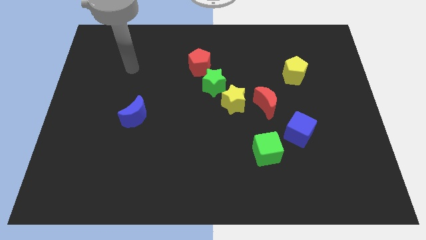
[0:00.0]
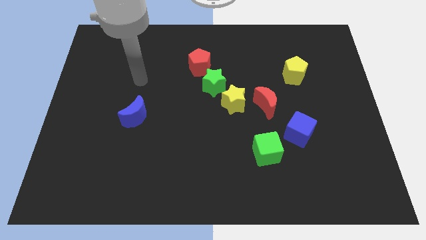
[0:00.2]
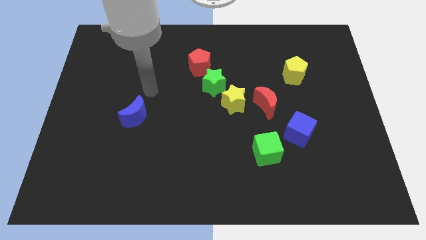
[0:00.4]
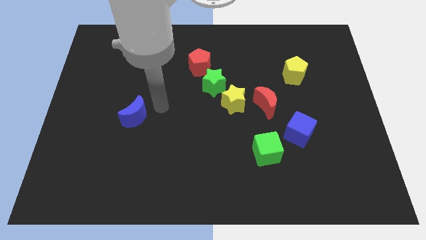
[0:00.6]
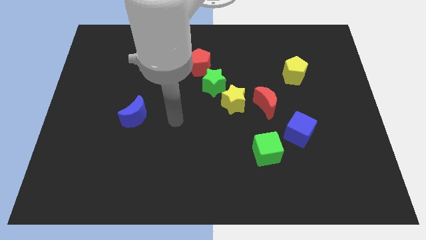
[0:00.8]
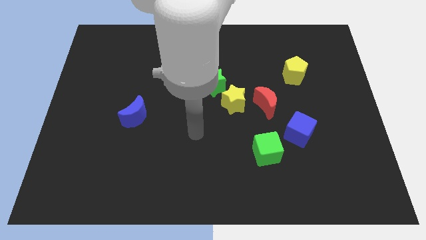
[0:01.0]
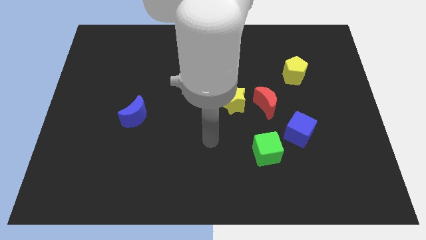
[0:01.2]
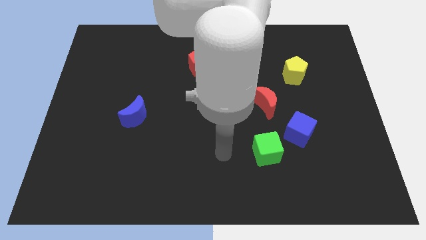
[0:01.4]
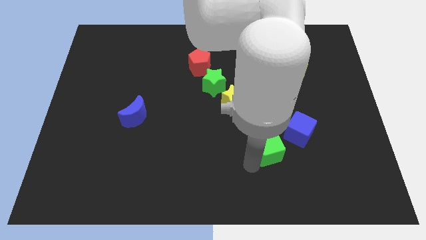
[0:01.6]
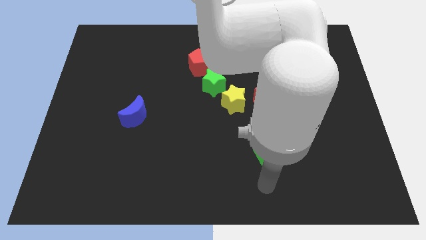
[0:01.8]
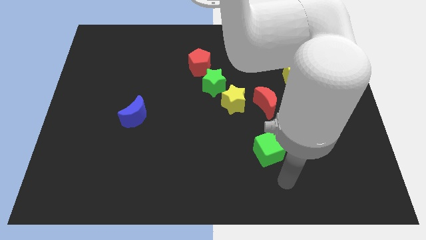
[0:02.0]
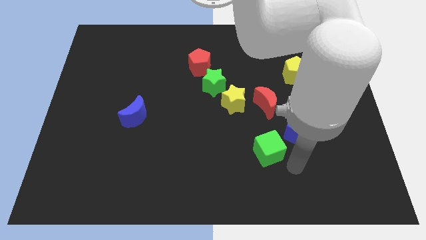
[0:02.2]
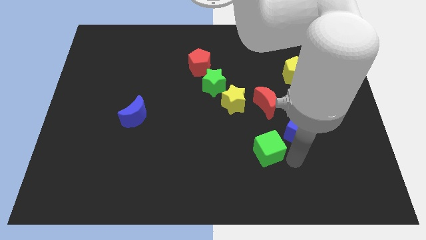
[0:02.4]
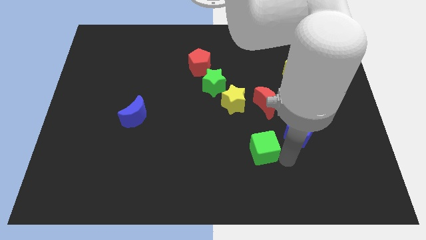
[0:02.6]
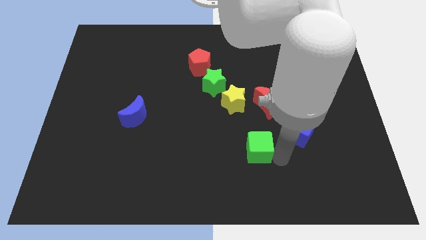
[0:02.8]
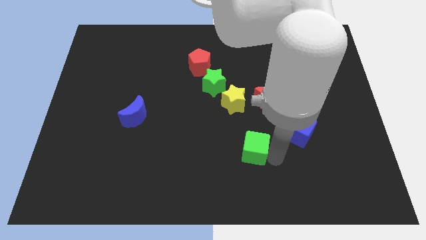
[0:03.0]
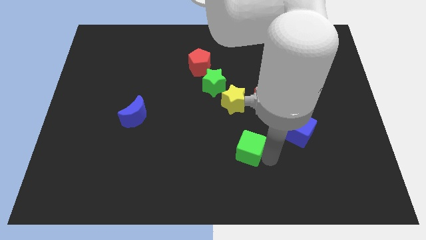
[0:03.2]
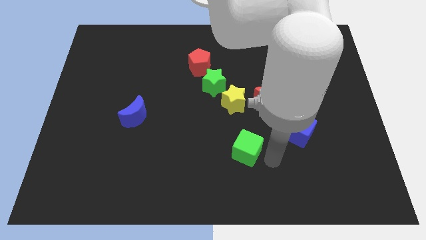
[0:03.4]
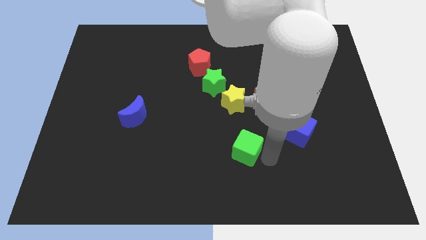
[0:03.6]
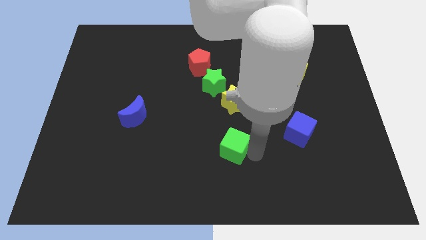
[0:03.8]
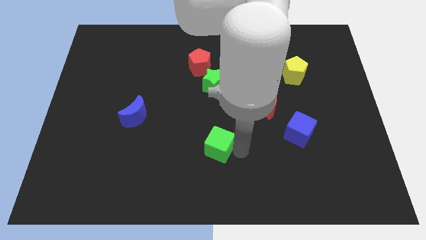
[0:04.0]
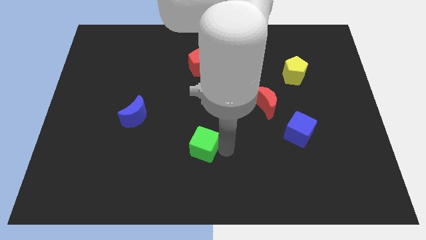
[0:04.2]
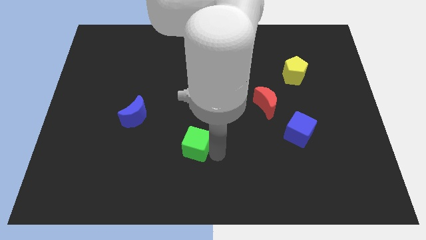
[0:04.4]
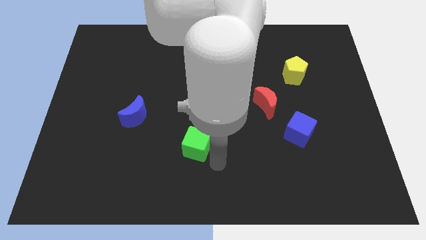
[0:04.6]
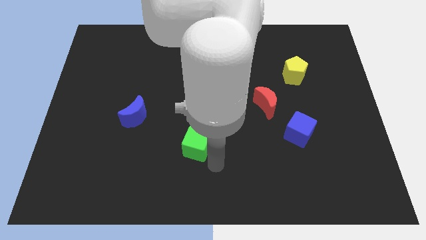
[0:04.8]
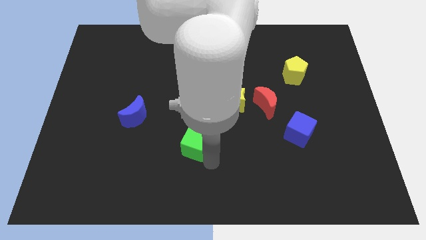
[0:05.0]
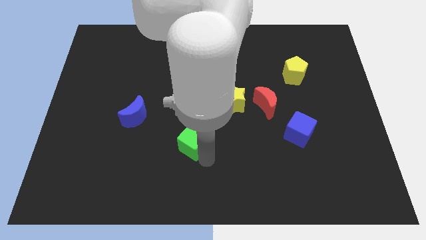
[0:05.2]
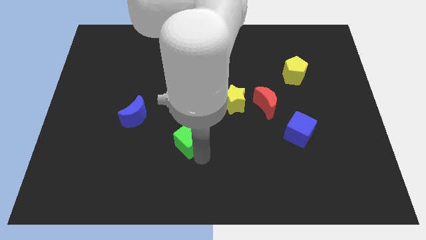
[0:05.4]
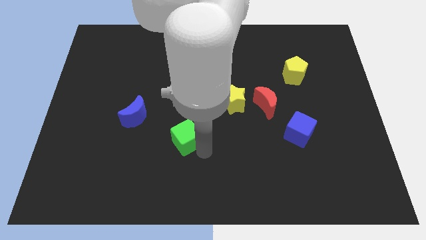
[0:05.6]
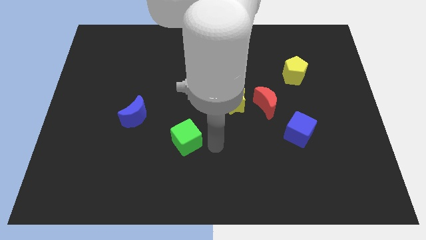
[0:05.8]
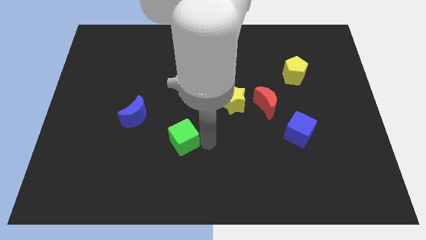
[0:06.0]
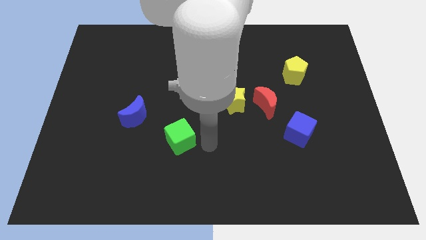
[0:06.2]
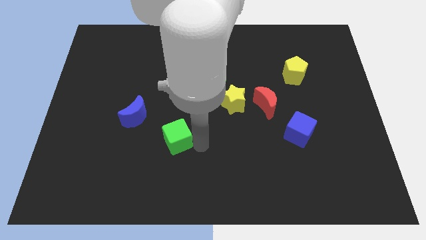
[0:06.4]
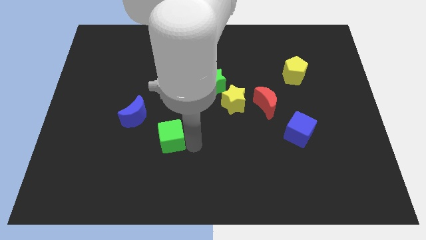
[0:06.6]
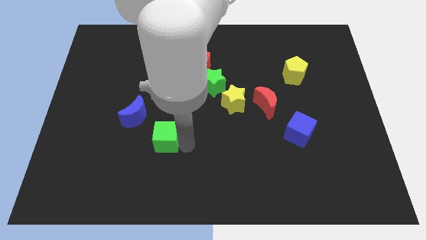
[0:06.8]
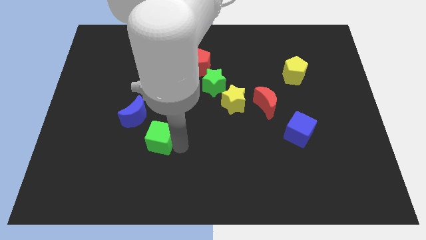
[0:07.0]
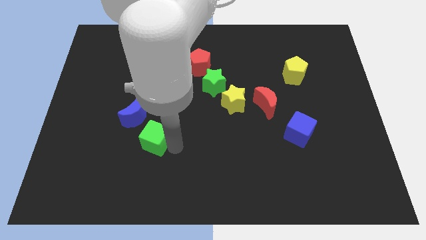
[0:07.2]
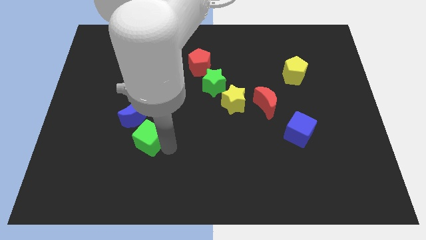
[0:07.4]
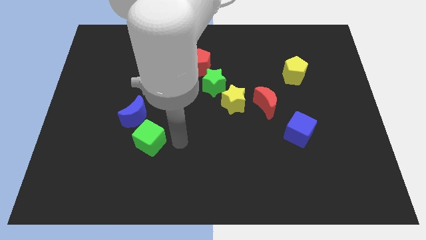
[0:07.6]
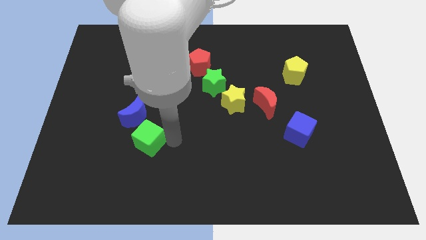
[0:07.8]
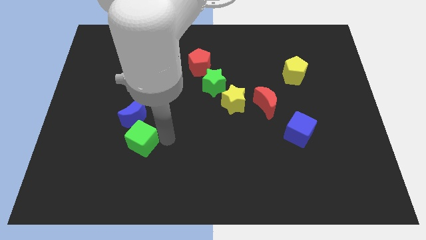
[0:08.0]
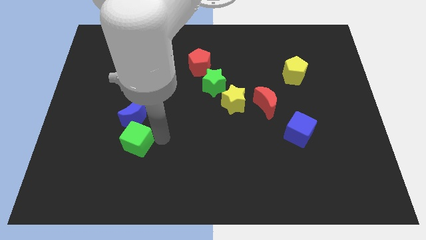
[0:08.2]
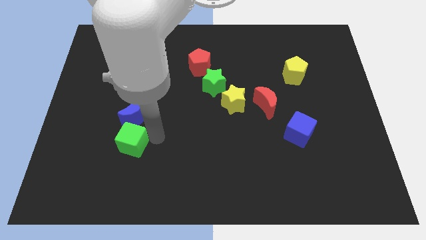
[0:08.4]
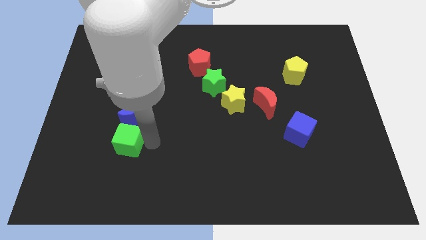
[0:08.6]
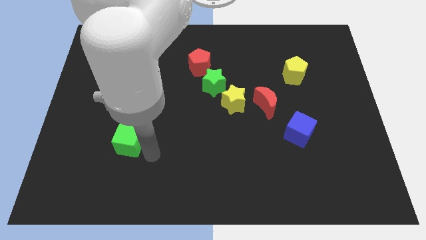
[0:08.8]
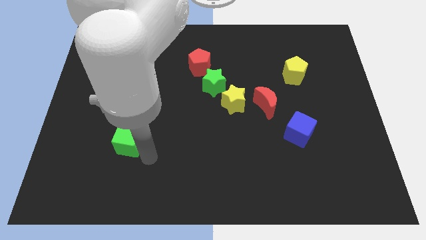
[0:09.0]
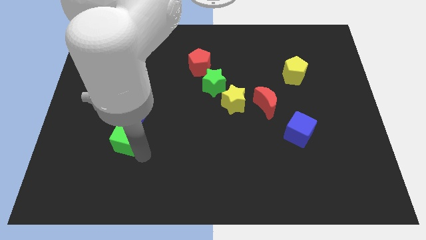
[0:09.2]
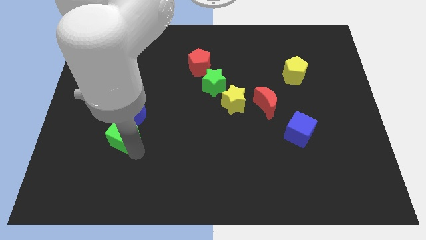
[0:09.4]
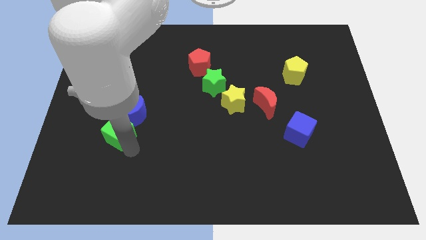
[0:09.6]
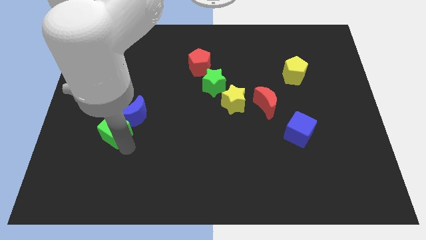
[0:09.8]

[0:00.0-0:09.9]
move the green cube left of the blue moon

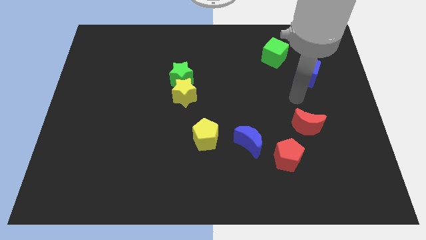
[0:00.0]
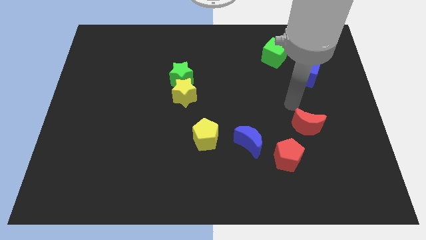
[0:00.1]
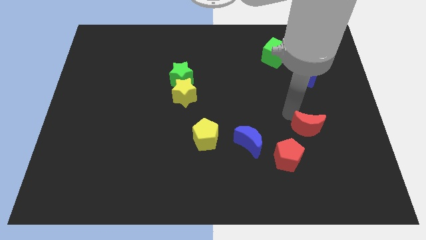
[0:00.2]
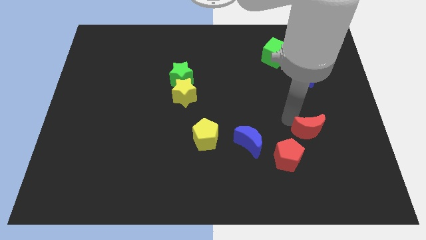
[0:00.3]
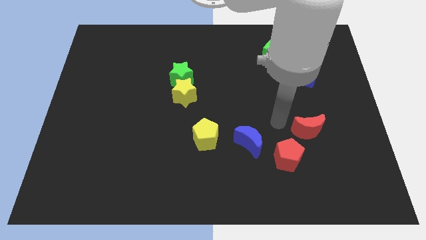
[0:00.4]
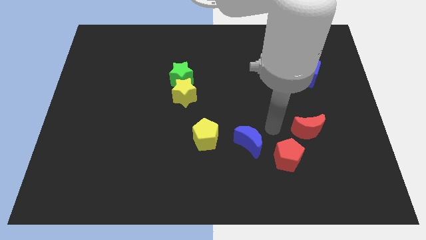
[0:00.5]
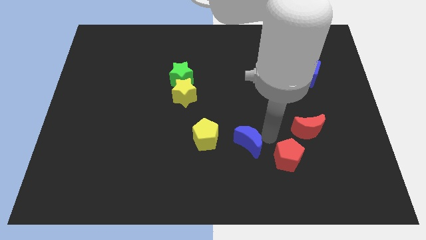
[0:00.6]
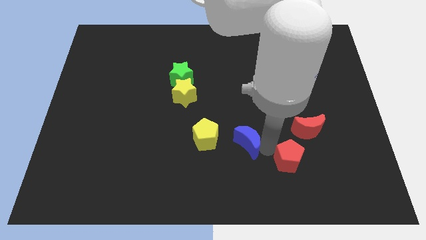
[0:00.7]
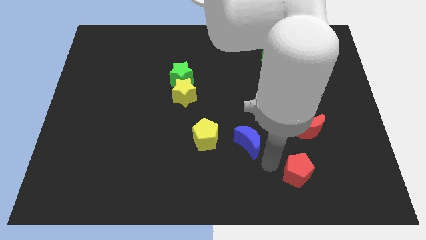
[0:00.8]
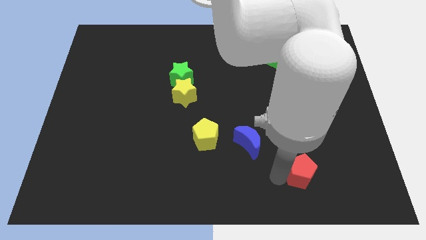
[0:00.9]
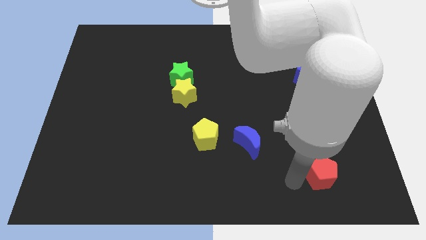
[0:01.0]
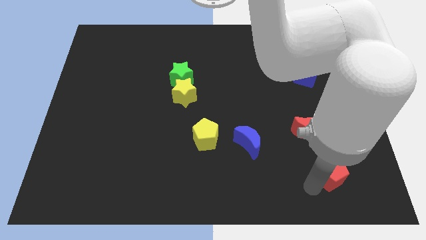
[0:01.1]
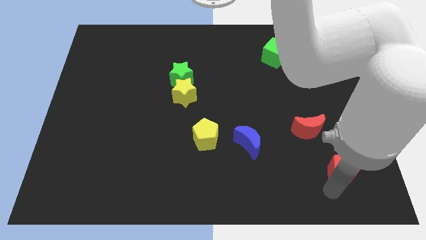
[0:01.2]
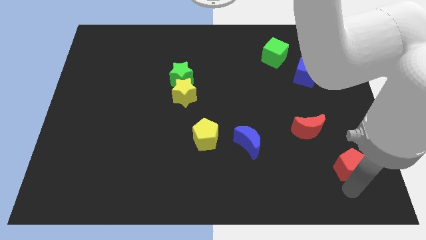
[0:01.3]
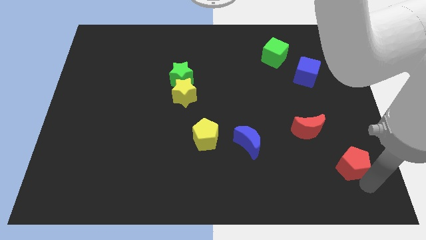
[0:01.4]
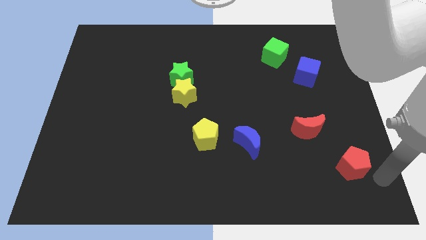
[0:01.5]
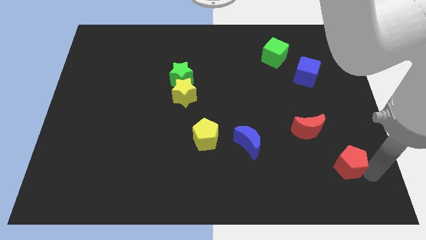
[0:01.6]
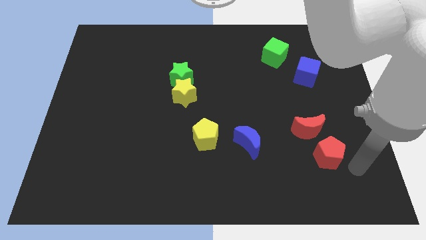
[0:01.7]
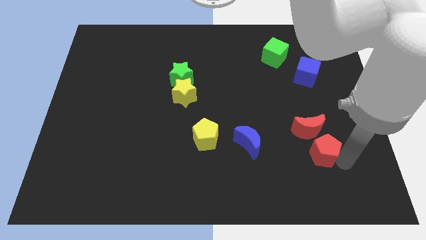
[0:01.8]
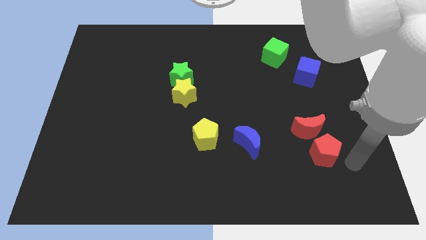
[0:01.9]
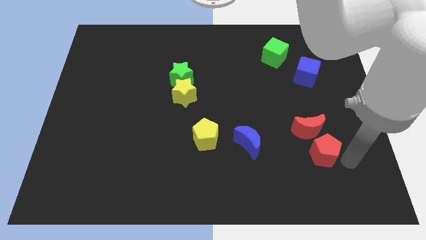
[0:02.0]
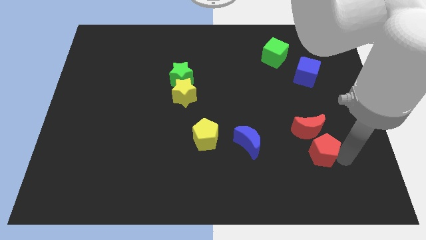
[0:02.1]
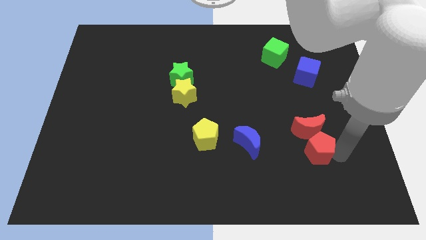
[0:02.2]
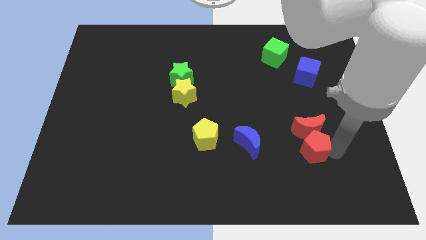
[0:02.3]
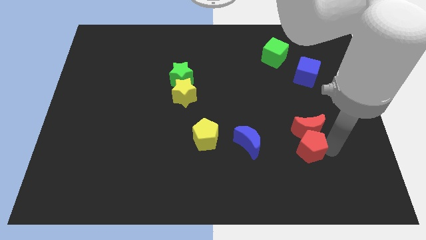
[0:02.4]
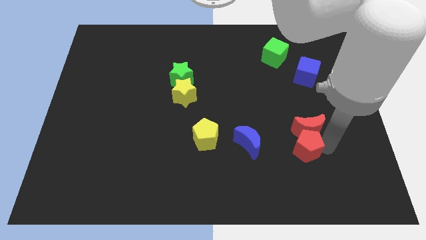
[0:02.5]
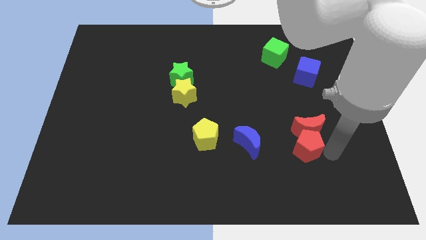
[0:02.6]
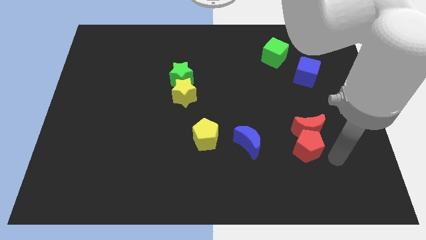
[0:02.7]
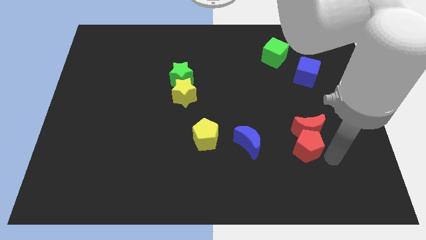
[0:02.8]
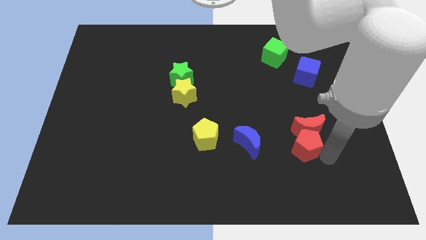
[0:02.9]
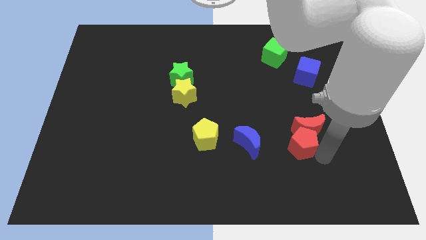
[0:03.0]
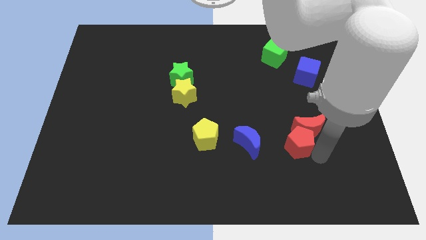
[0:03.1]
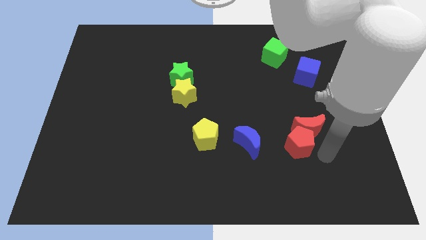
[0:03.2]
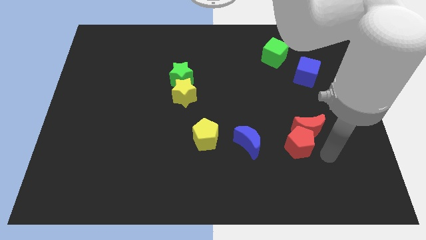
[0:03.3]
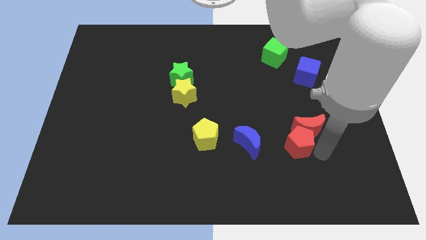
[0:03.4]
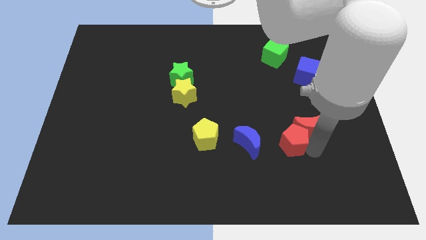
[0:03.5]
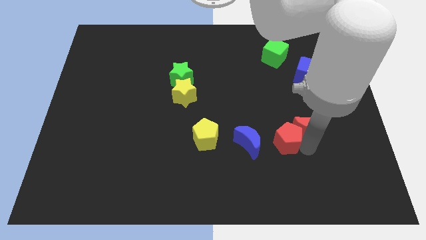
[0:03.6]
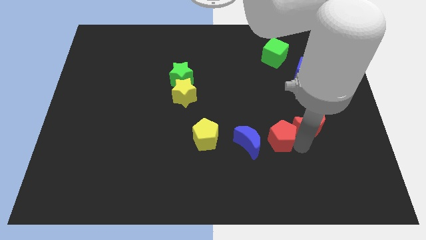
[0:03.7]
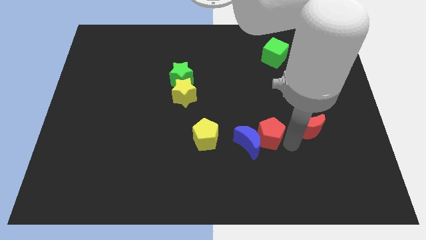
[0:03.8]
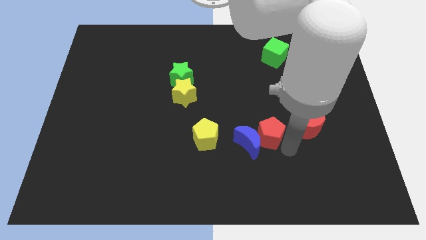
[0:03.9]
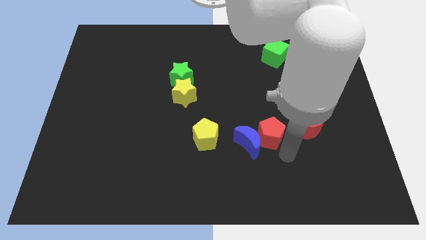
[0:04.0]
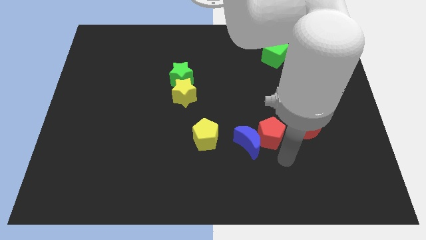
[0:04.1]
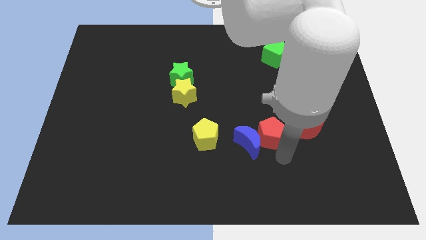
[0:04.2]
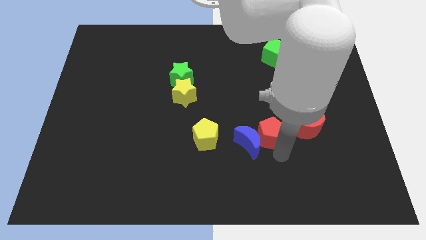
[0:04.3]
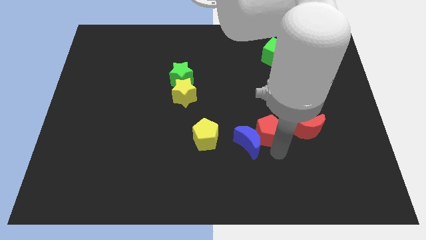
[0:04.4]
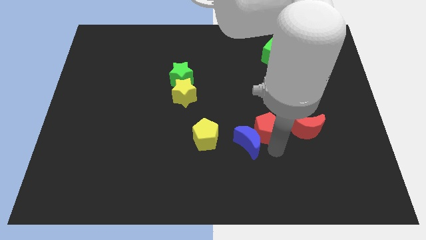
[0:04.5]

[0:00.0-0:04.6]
slide the red pentagon to the top of the blue moon
